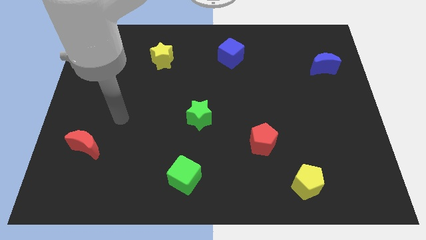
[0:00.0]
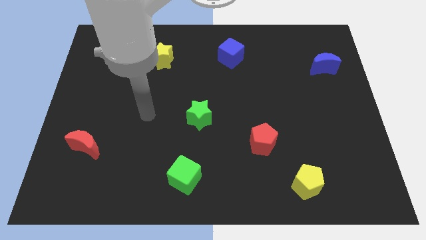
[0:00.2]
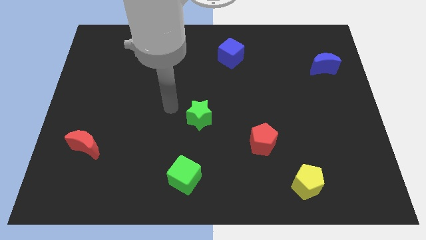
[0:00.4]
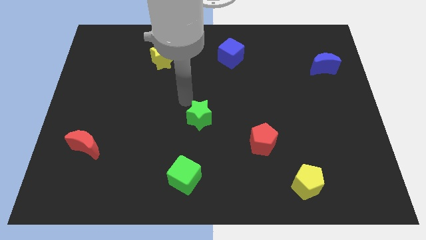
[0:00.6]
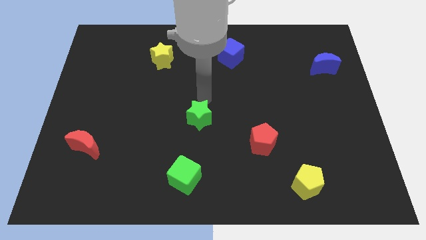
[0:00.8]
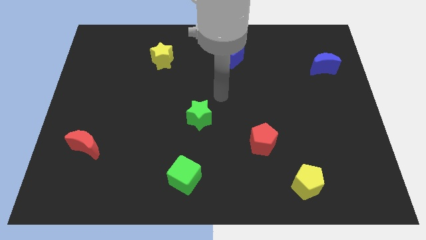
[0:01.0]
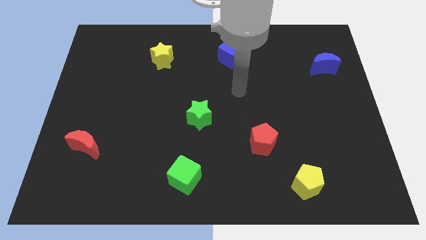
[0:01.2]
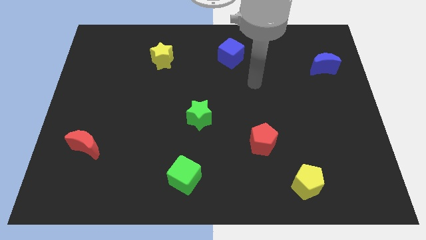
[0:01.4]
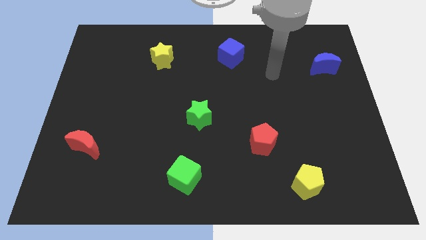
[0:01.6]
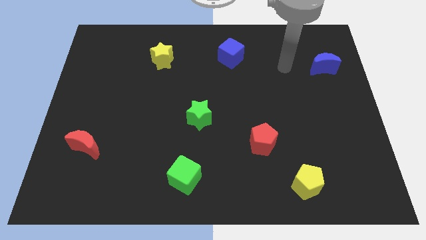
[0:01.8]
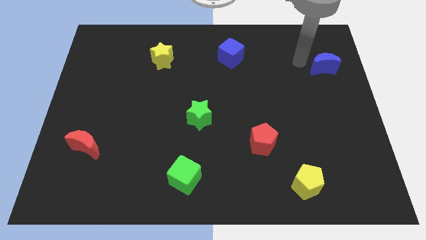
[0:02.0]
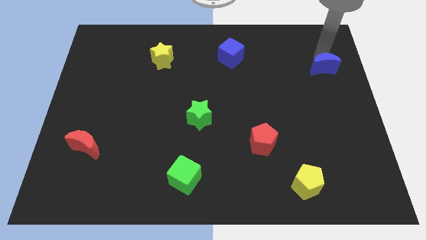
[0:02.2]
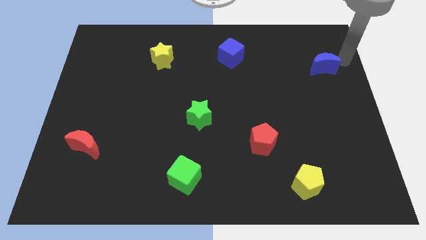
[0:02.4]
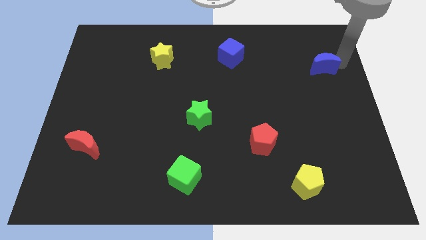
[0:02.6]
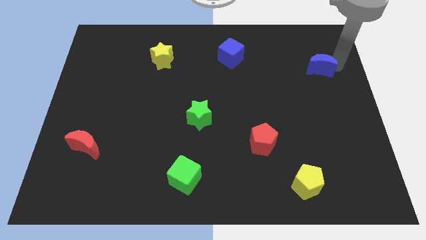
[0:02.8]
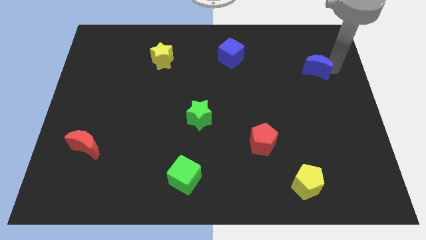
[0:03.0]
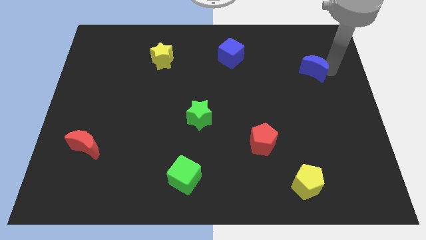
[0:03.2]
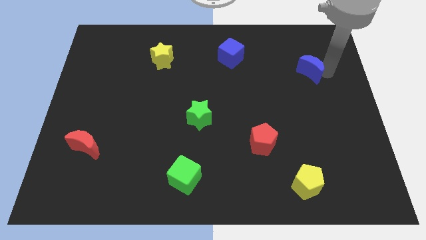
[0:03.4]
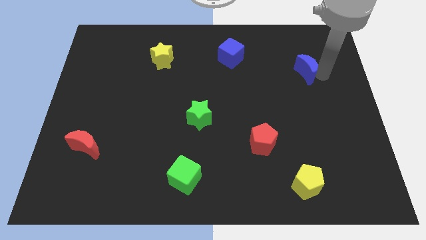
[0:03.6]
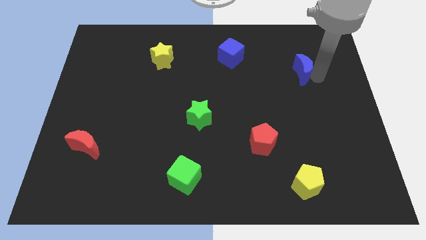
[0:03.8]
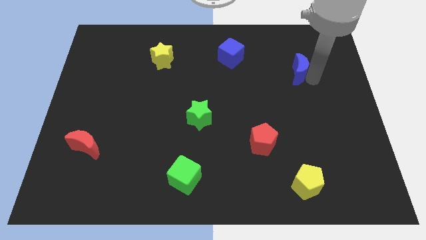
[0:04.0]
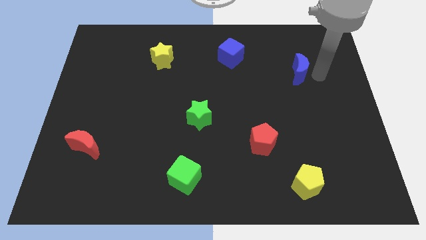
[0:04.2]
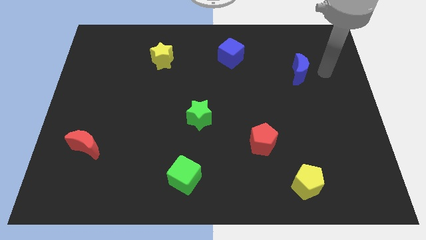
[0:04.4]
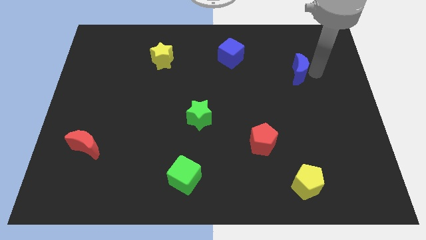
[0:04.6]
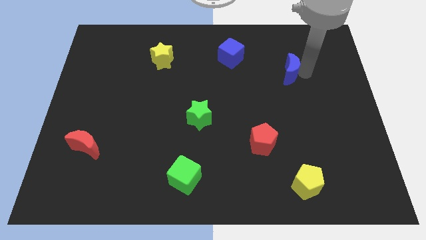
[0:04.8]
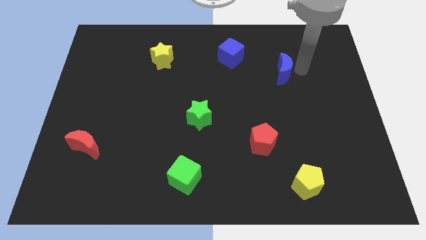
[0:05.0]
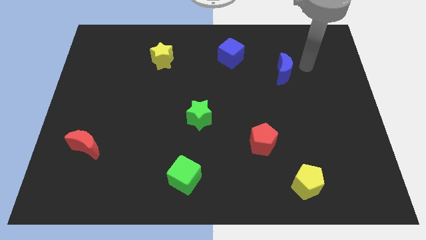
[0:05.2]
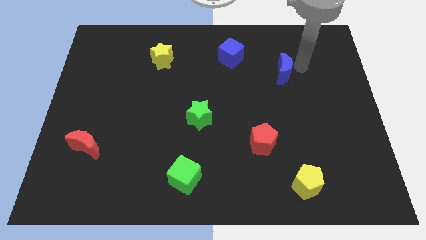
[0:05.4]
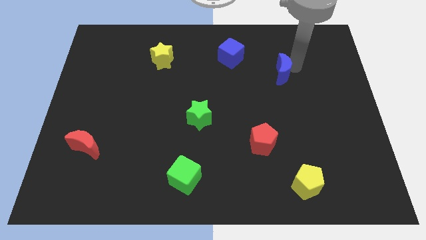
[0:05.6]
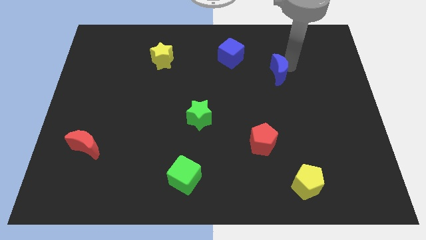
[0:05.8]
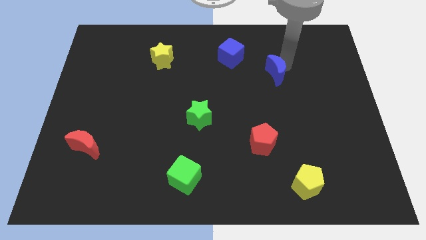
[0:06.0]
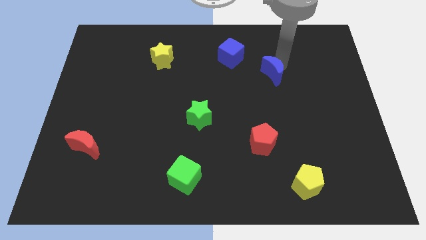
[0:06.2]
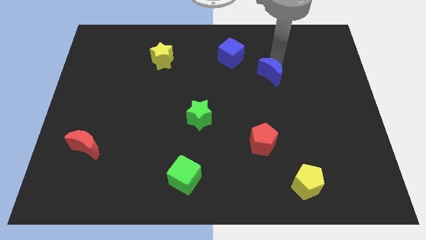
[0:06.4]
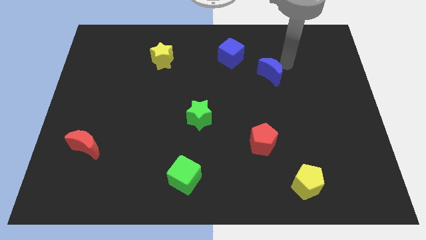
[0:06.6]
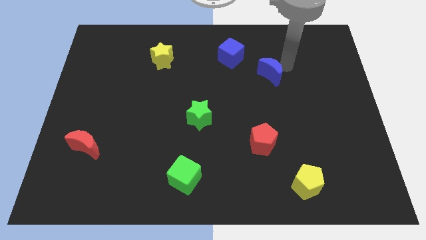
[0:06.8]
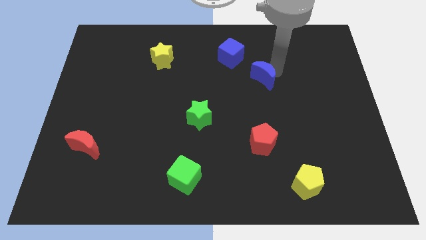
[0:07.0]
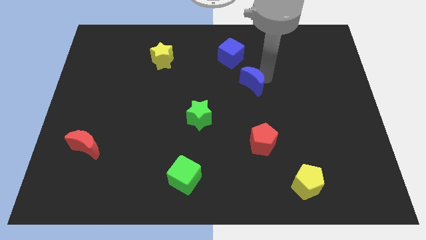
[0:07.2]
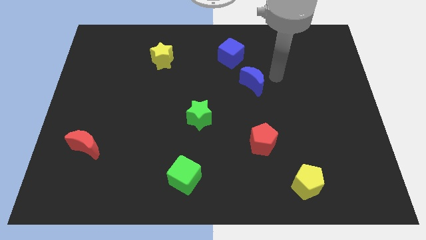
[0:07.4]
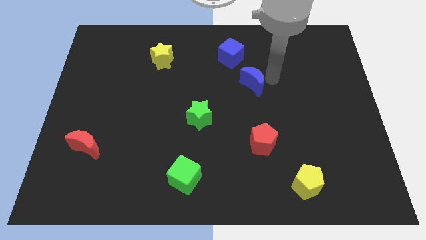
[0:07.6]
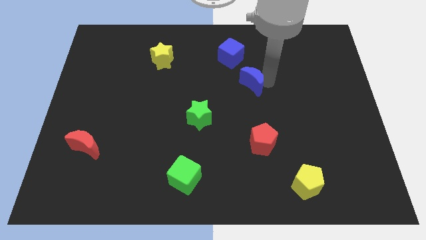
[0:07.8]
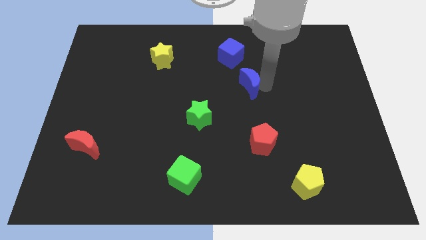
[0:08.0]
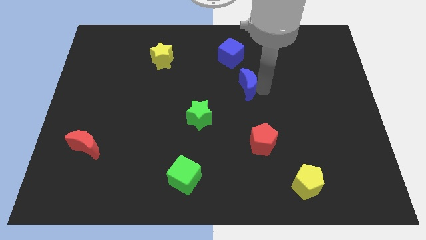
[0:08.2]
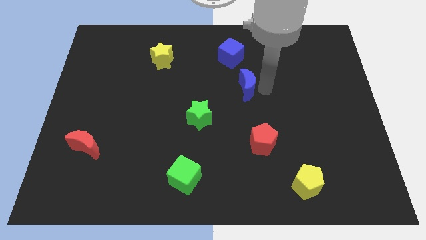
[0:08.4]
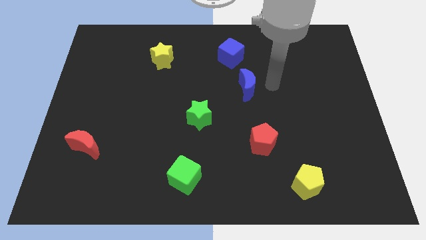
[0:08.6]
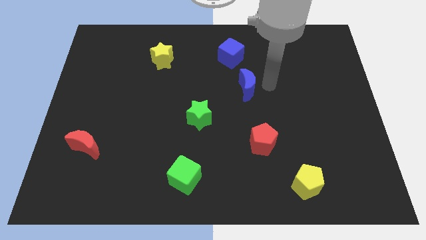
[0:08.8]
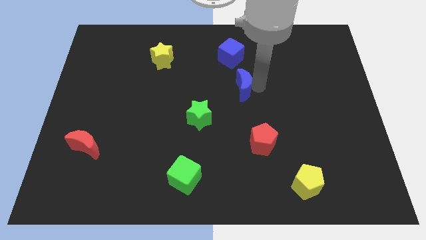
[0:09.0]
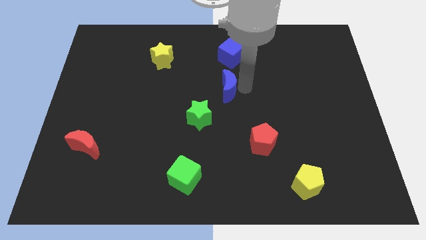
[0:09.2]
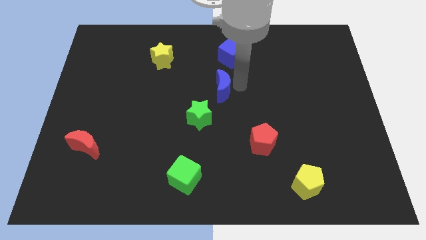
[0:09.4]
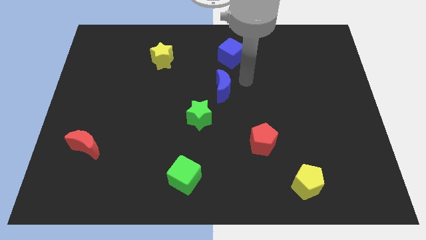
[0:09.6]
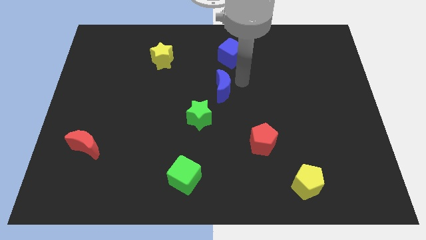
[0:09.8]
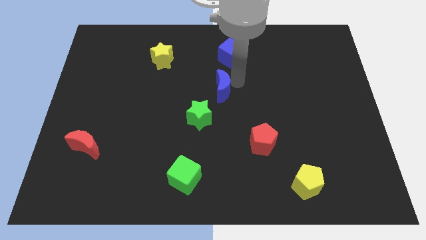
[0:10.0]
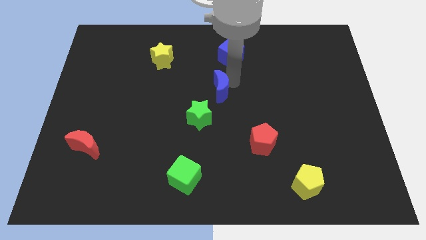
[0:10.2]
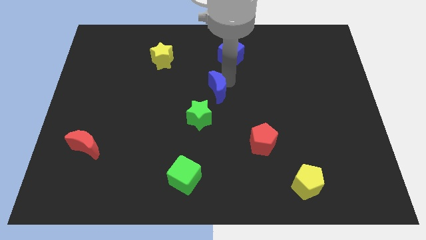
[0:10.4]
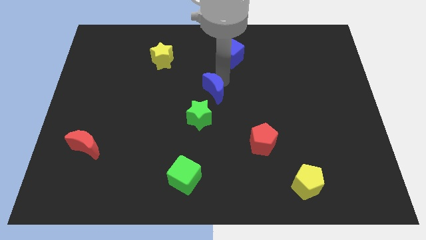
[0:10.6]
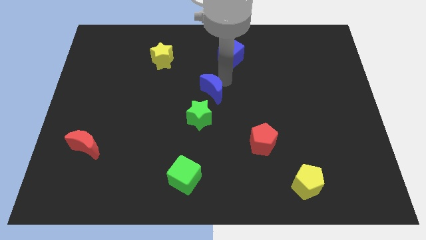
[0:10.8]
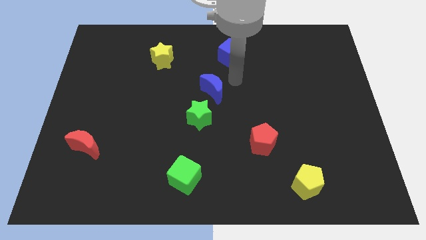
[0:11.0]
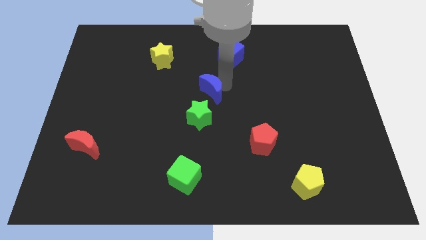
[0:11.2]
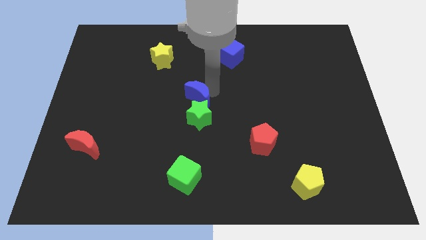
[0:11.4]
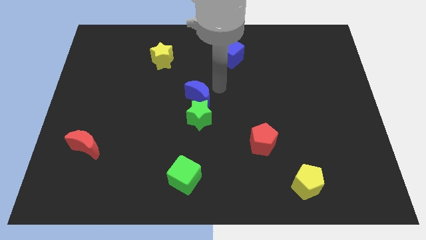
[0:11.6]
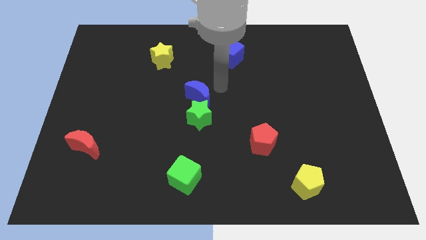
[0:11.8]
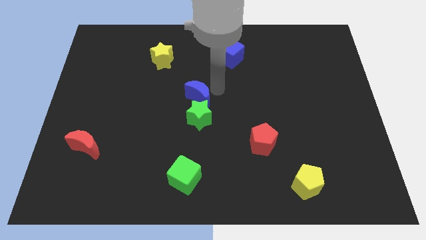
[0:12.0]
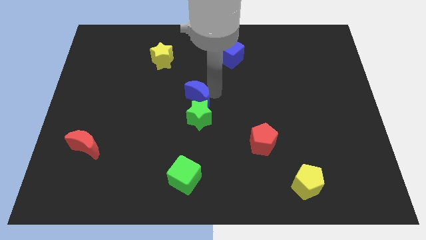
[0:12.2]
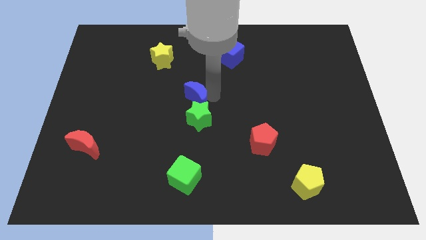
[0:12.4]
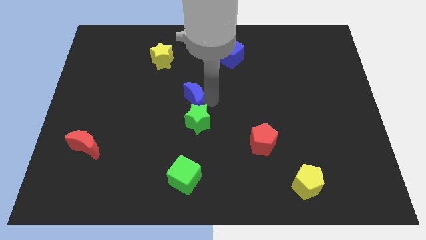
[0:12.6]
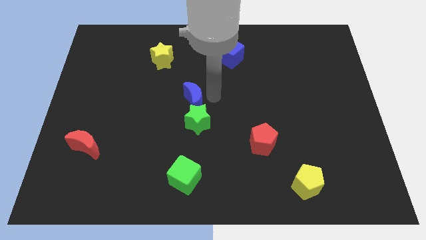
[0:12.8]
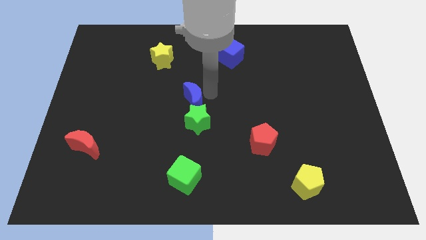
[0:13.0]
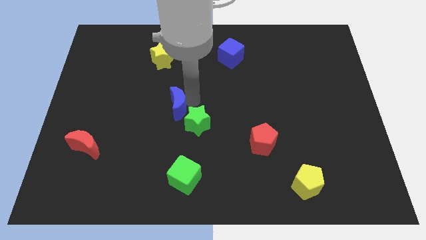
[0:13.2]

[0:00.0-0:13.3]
move the blue moon just left of the green star
